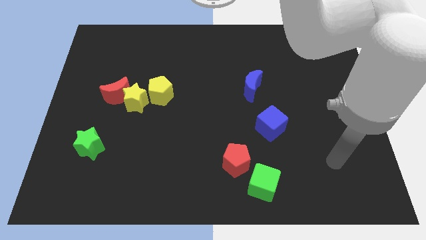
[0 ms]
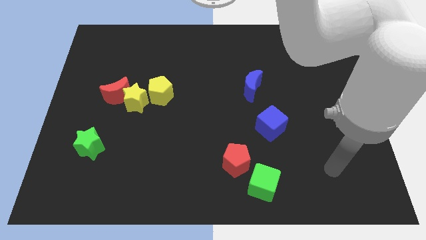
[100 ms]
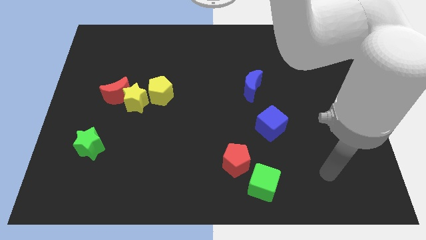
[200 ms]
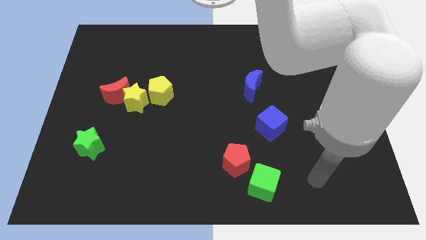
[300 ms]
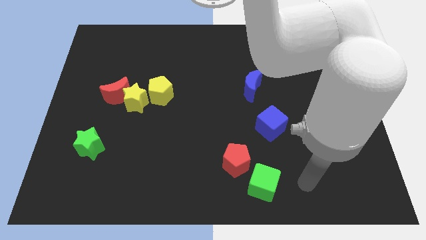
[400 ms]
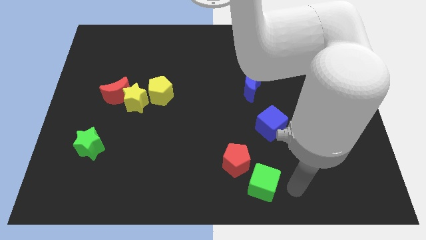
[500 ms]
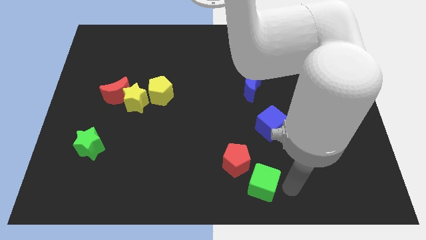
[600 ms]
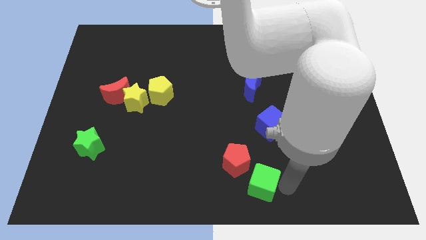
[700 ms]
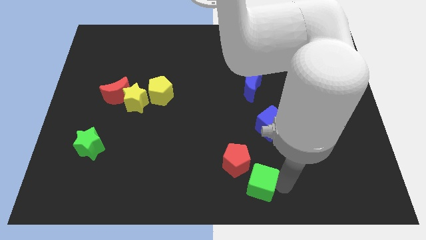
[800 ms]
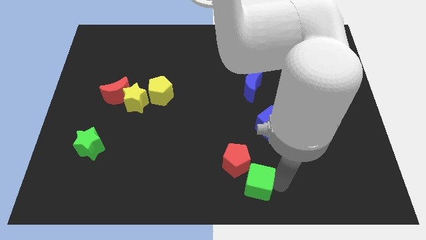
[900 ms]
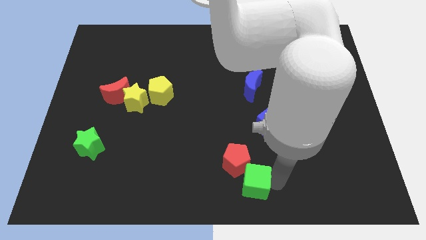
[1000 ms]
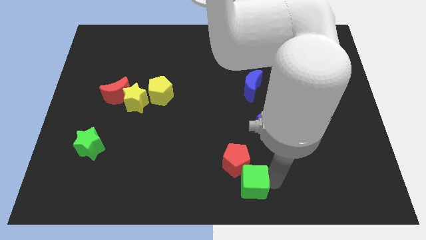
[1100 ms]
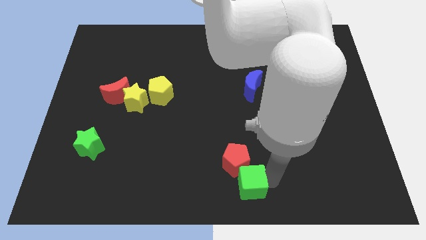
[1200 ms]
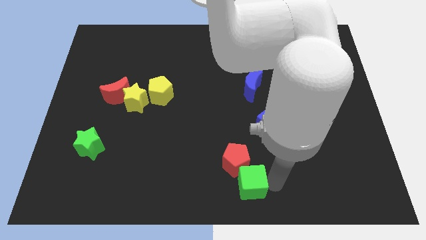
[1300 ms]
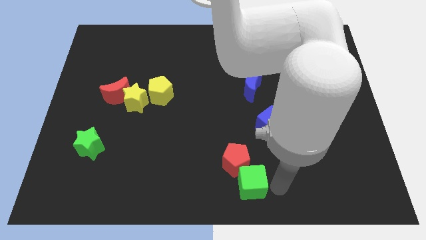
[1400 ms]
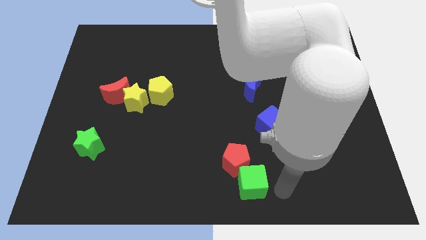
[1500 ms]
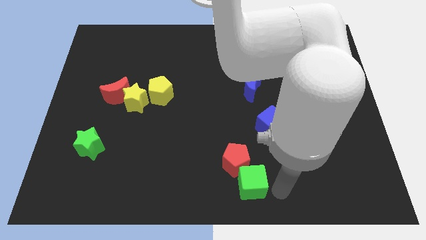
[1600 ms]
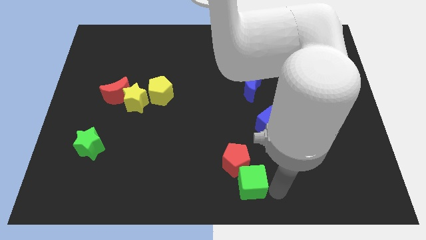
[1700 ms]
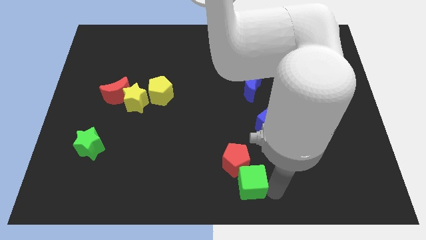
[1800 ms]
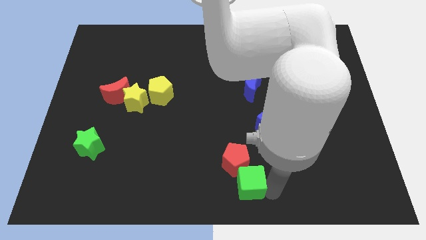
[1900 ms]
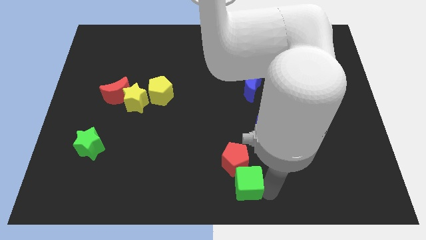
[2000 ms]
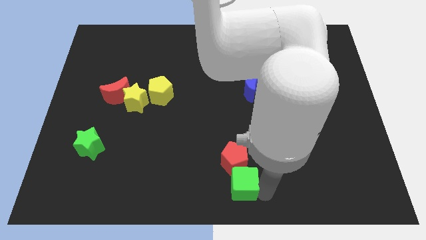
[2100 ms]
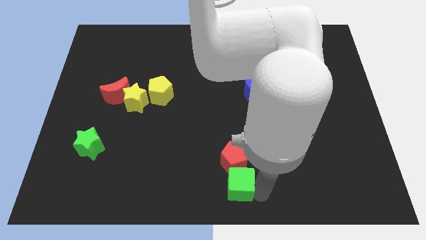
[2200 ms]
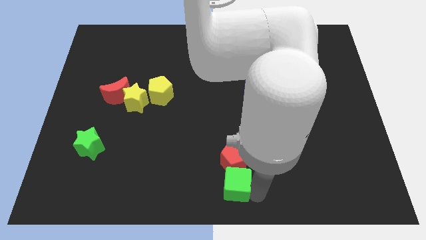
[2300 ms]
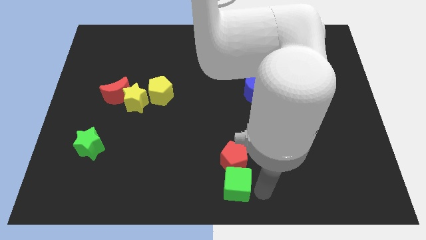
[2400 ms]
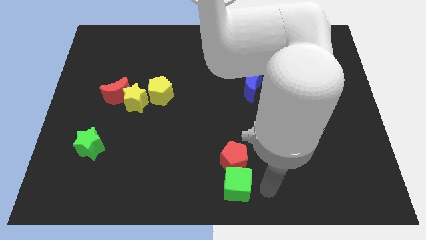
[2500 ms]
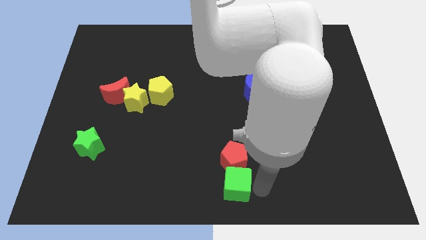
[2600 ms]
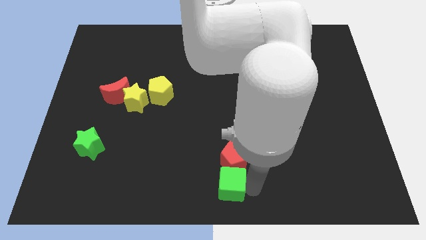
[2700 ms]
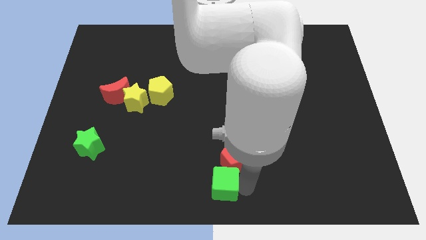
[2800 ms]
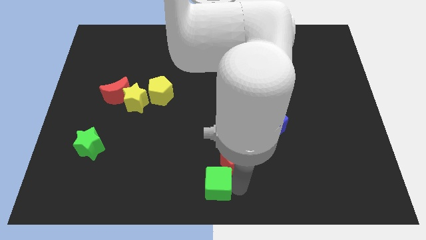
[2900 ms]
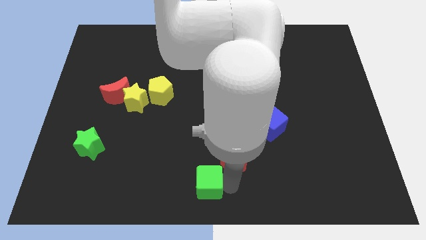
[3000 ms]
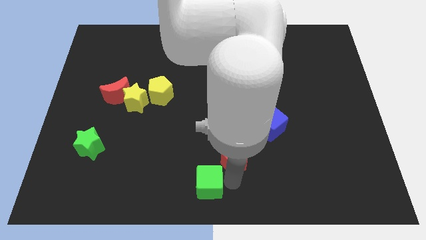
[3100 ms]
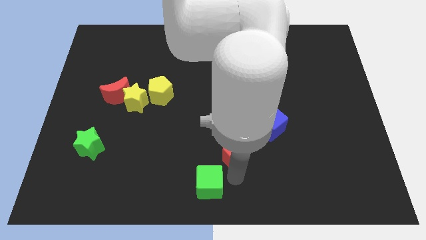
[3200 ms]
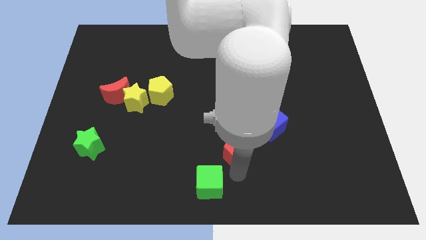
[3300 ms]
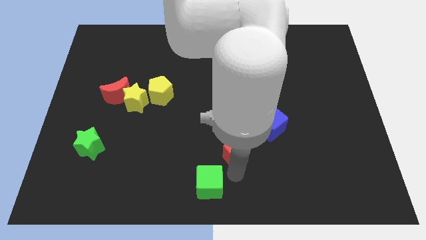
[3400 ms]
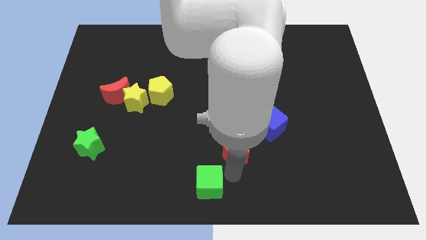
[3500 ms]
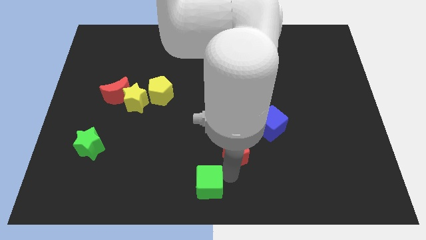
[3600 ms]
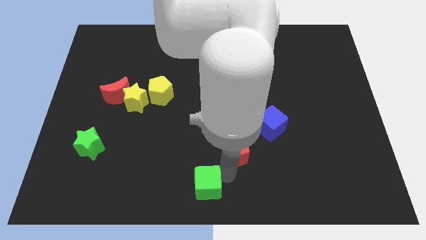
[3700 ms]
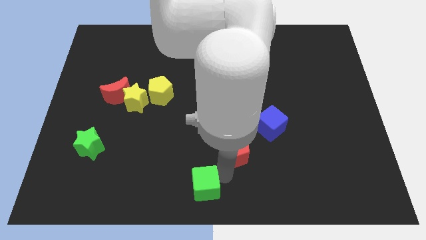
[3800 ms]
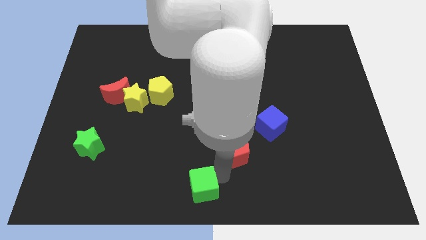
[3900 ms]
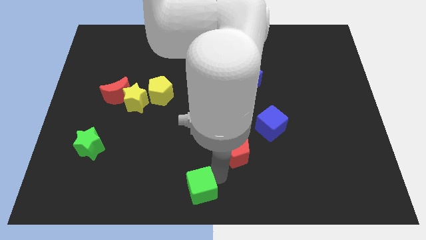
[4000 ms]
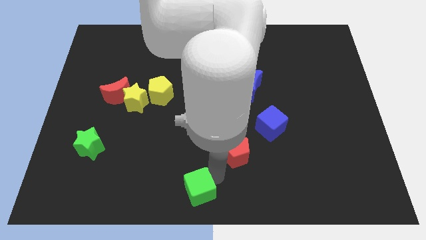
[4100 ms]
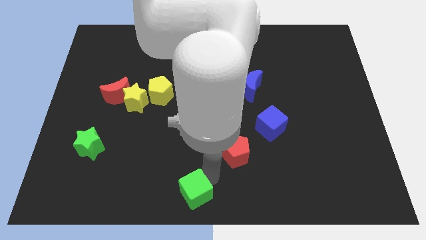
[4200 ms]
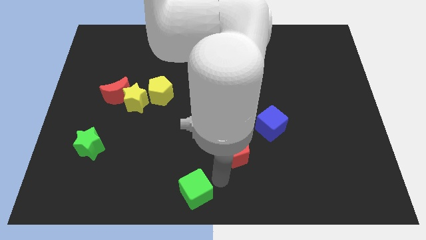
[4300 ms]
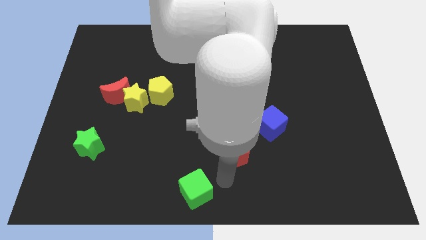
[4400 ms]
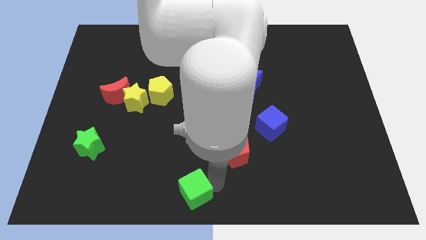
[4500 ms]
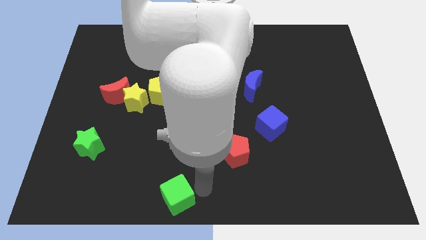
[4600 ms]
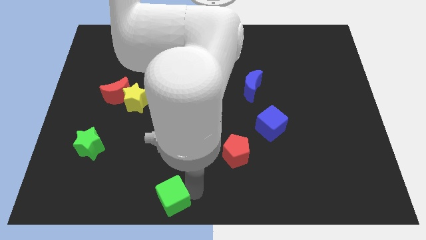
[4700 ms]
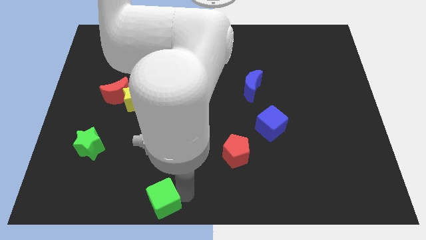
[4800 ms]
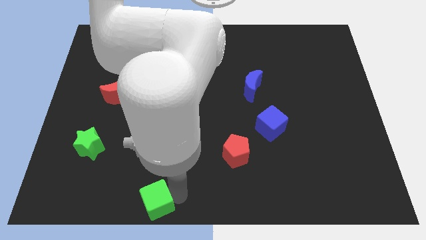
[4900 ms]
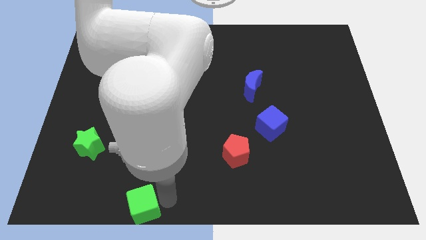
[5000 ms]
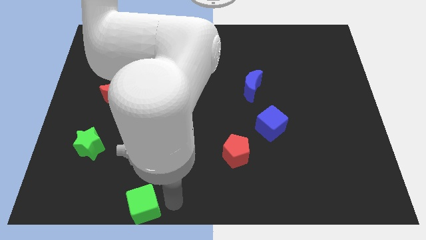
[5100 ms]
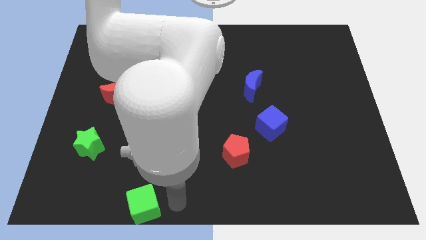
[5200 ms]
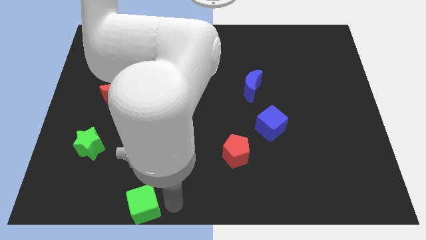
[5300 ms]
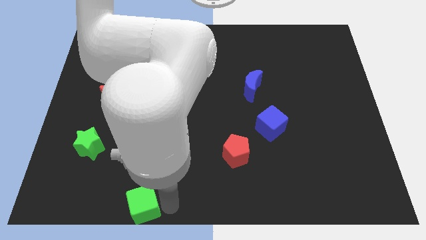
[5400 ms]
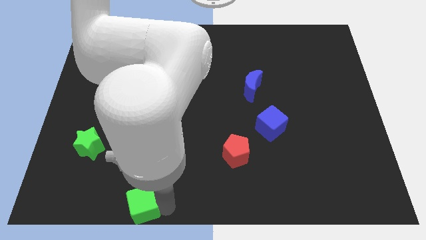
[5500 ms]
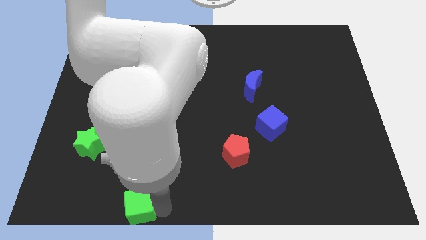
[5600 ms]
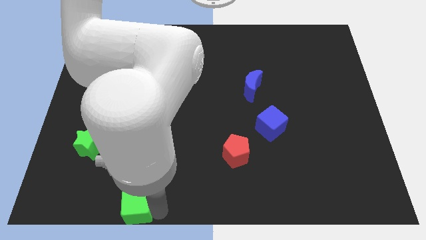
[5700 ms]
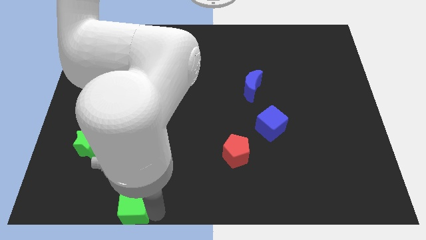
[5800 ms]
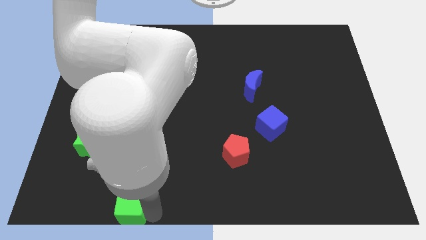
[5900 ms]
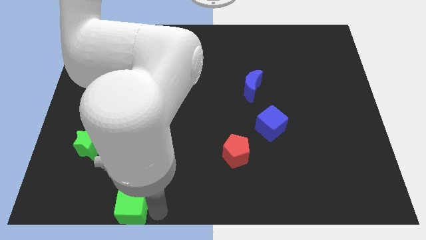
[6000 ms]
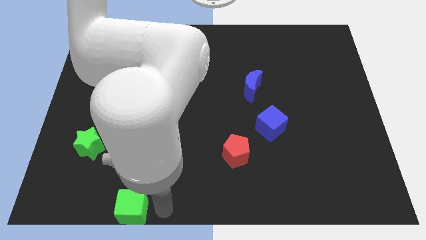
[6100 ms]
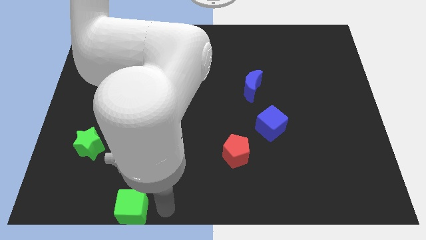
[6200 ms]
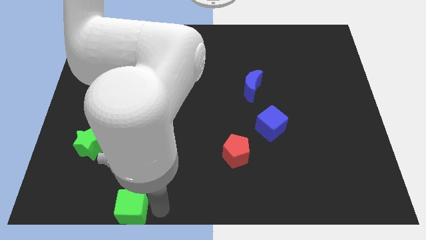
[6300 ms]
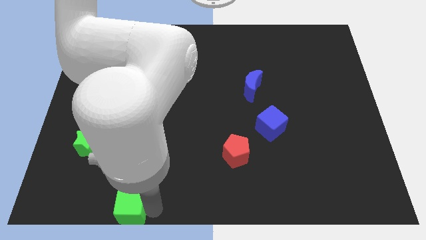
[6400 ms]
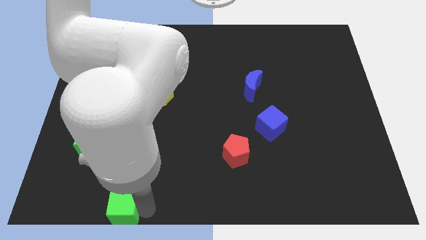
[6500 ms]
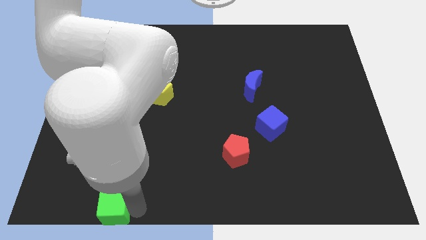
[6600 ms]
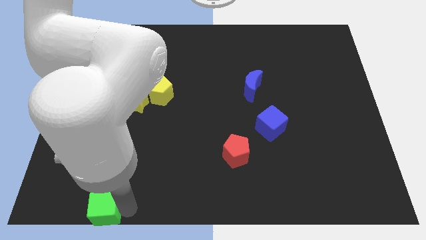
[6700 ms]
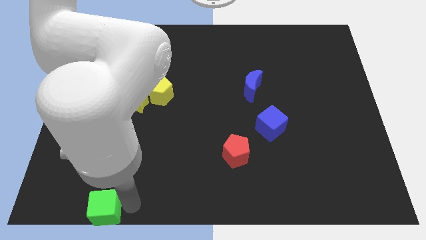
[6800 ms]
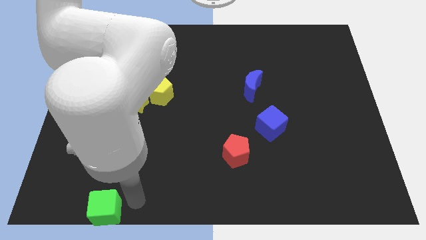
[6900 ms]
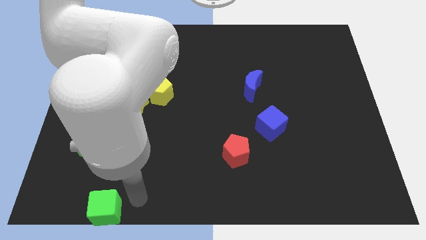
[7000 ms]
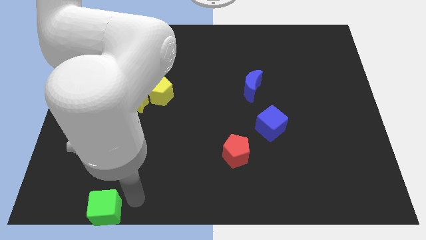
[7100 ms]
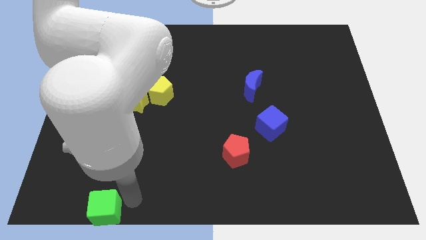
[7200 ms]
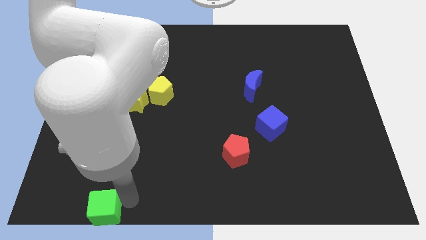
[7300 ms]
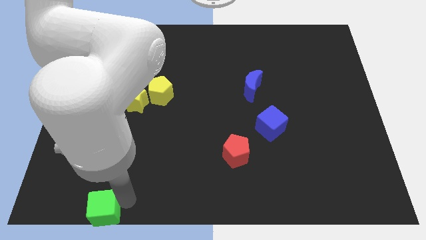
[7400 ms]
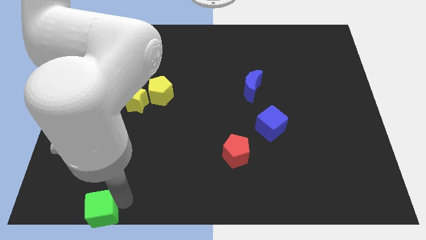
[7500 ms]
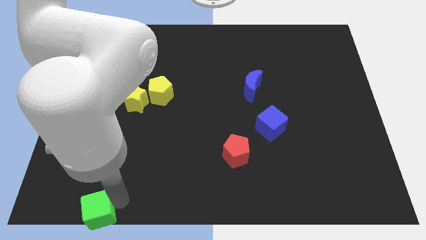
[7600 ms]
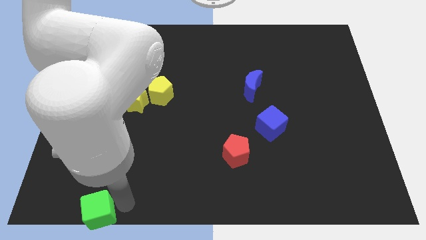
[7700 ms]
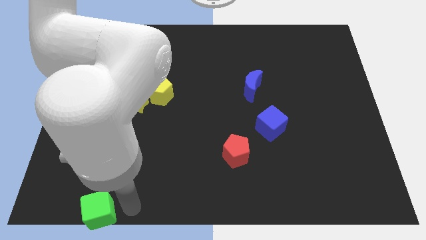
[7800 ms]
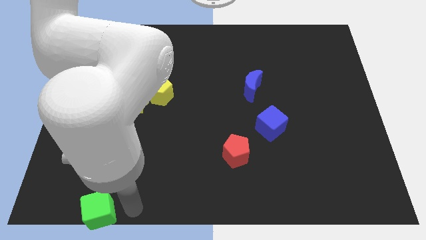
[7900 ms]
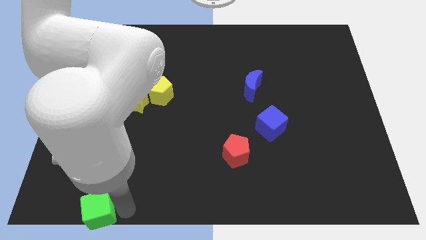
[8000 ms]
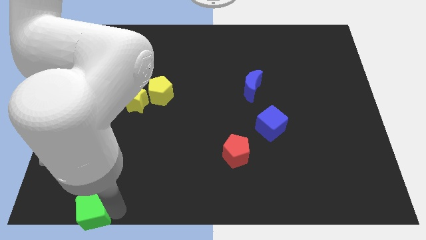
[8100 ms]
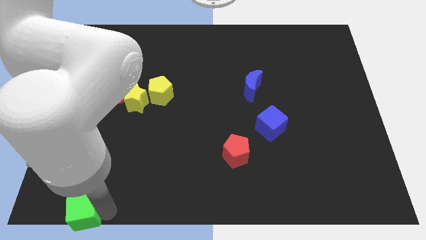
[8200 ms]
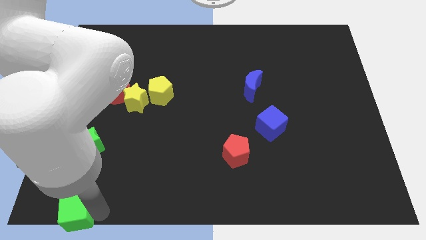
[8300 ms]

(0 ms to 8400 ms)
put the green cube to the bottom left
